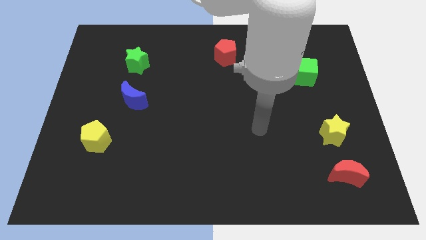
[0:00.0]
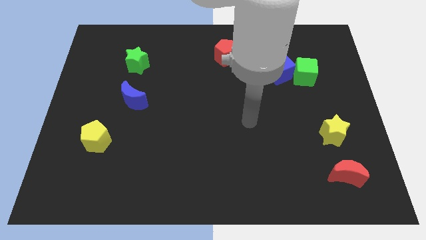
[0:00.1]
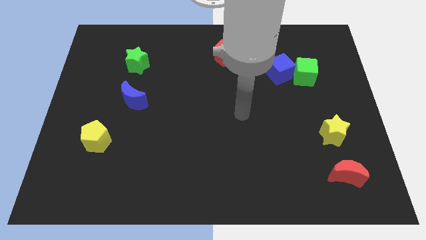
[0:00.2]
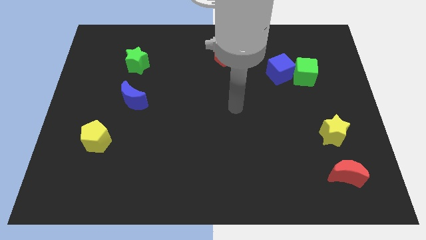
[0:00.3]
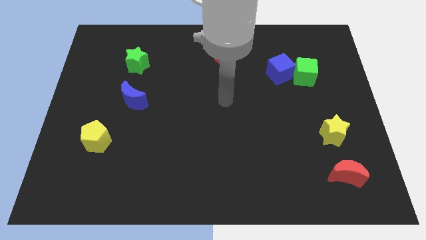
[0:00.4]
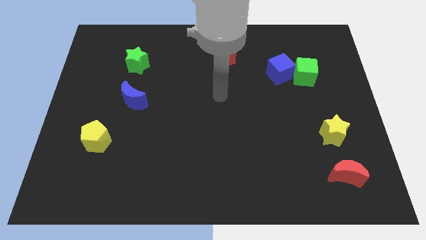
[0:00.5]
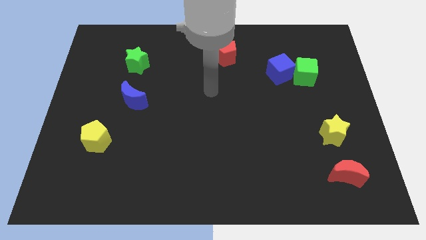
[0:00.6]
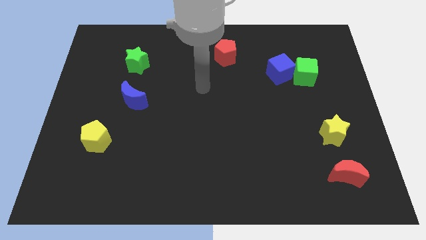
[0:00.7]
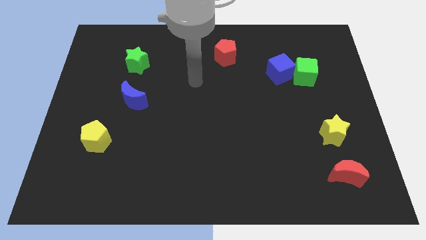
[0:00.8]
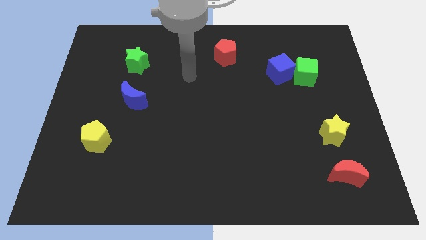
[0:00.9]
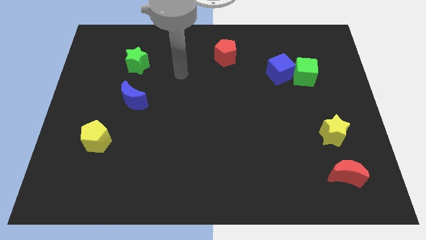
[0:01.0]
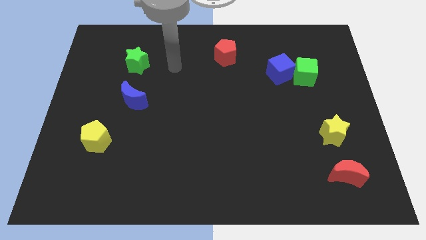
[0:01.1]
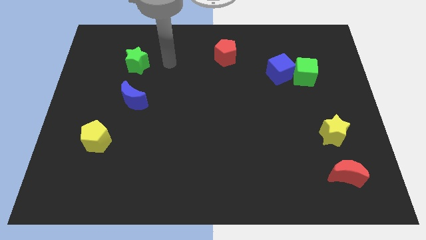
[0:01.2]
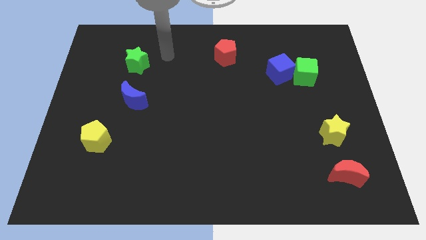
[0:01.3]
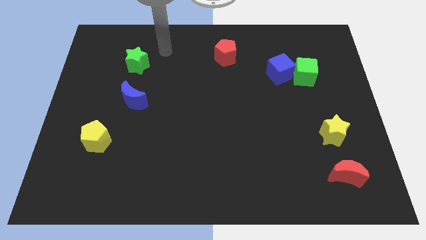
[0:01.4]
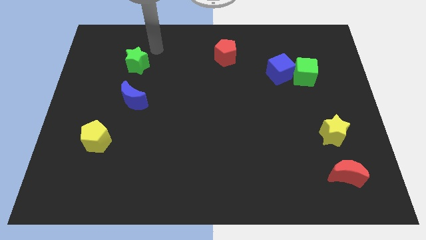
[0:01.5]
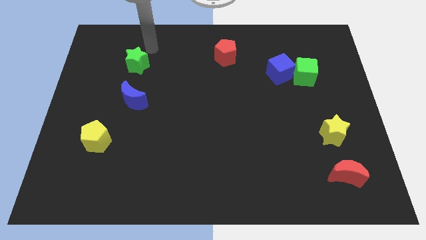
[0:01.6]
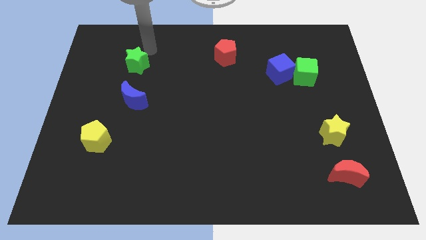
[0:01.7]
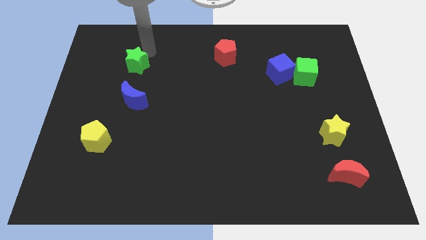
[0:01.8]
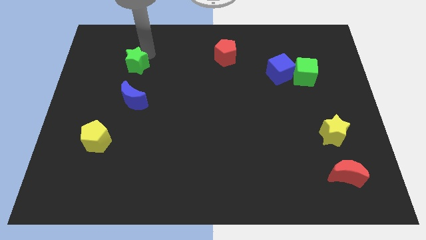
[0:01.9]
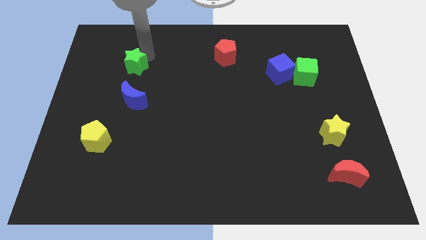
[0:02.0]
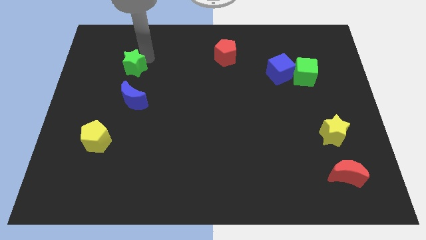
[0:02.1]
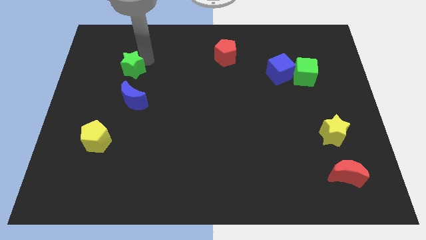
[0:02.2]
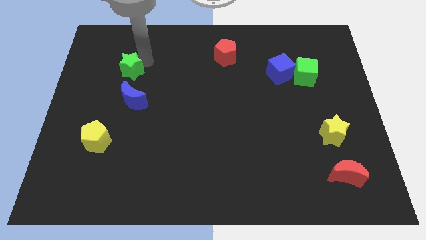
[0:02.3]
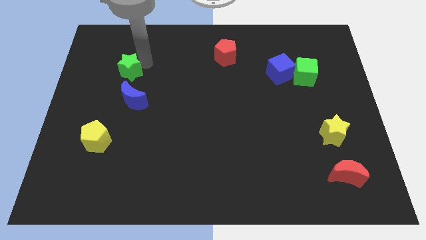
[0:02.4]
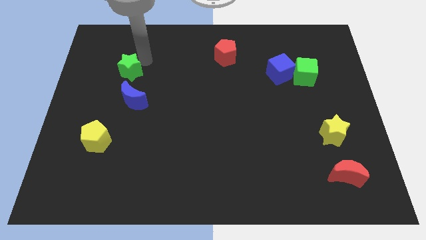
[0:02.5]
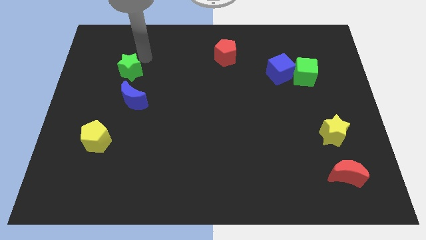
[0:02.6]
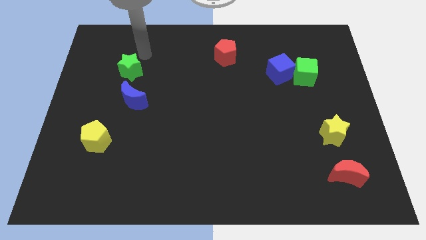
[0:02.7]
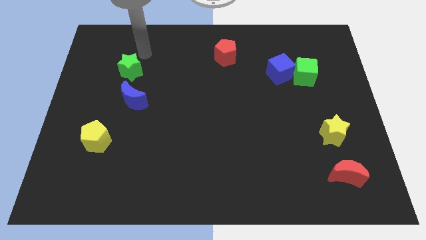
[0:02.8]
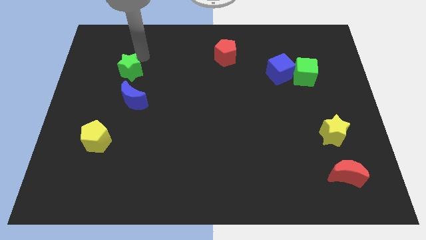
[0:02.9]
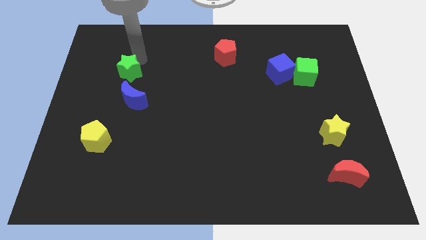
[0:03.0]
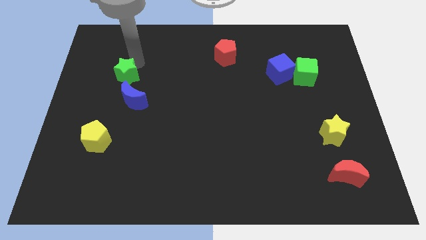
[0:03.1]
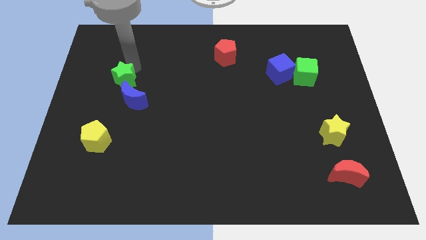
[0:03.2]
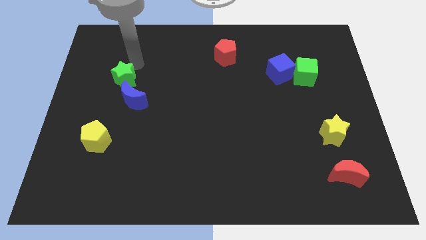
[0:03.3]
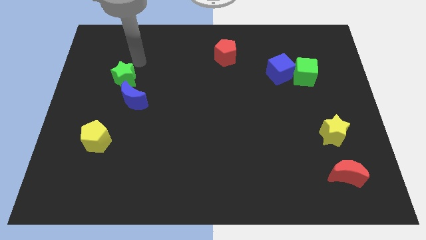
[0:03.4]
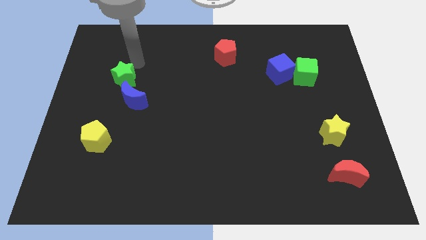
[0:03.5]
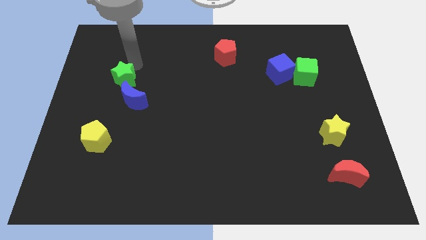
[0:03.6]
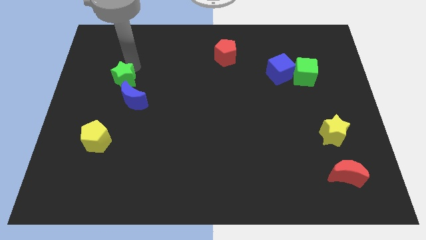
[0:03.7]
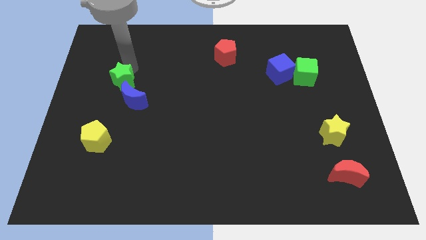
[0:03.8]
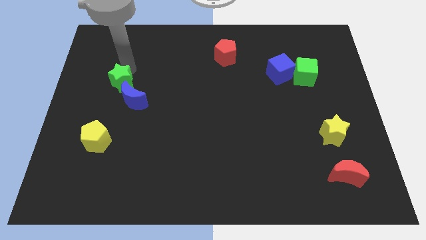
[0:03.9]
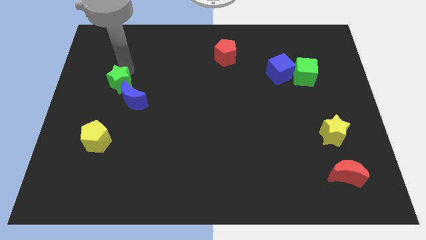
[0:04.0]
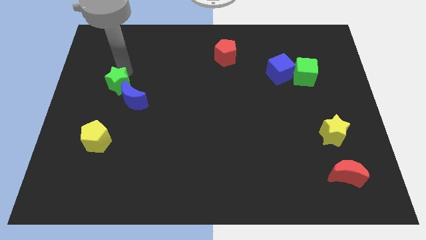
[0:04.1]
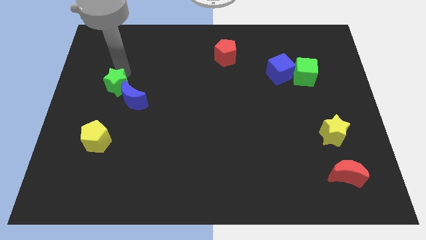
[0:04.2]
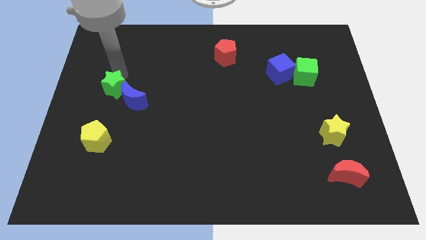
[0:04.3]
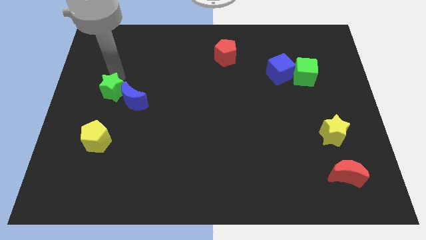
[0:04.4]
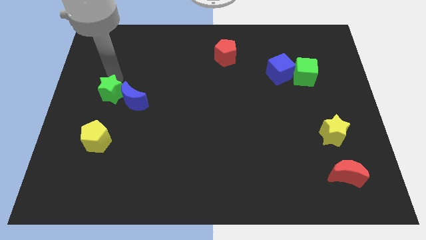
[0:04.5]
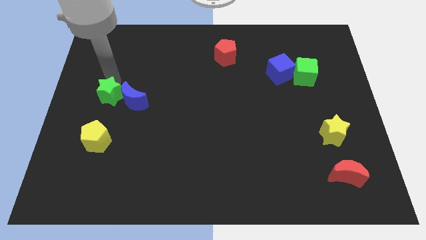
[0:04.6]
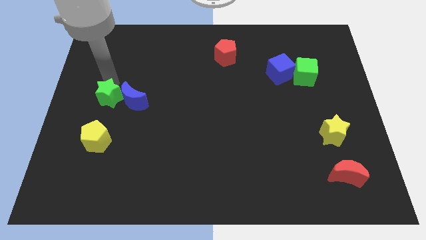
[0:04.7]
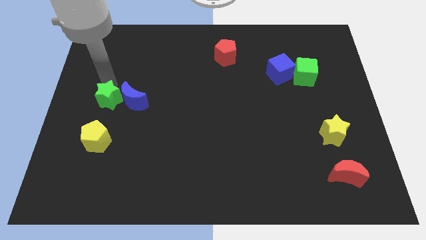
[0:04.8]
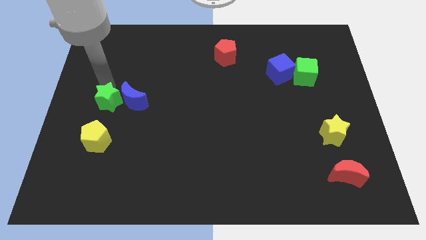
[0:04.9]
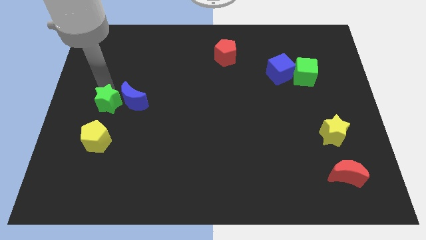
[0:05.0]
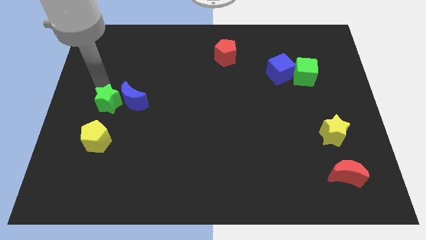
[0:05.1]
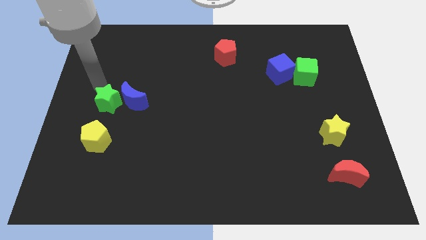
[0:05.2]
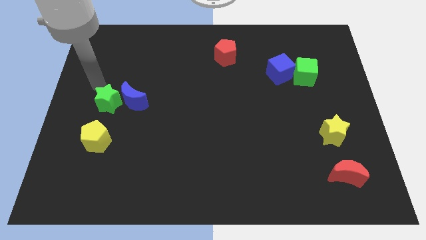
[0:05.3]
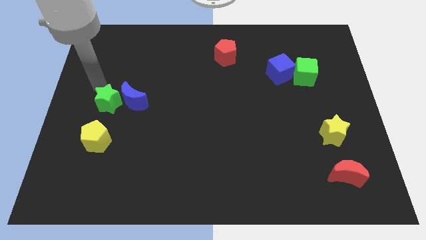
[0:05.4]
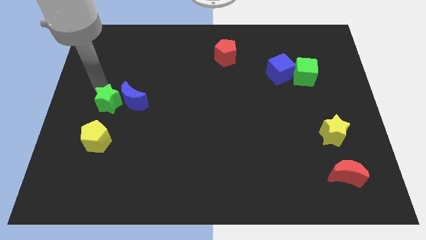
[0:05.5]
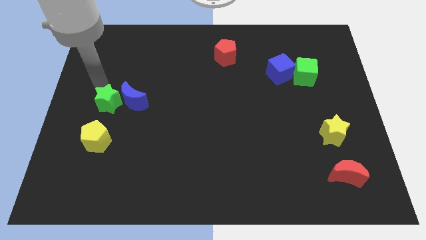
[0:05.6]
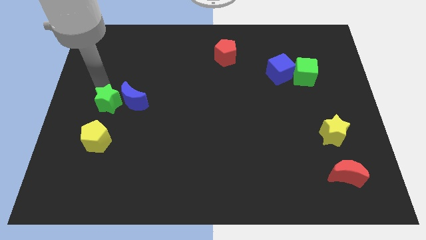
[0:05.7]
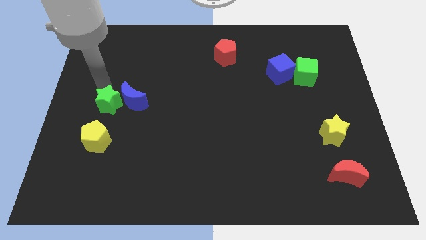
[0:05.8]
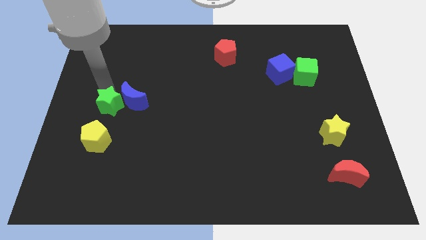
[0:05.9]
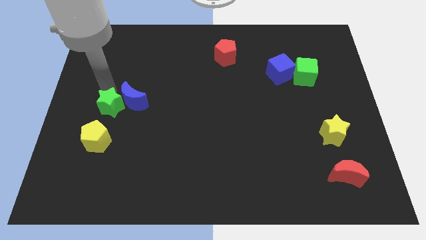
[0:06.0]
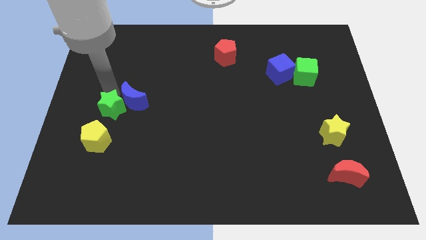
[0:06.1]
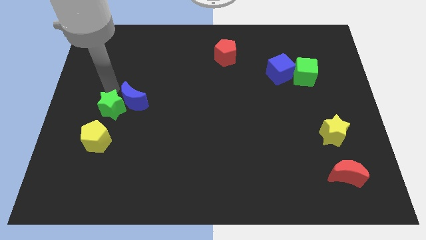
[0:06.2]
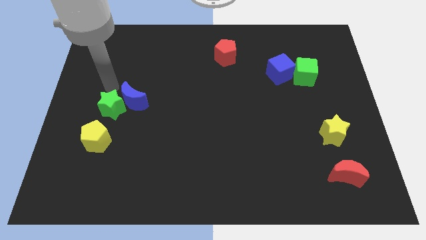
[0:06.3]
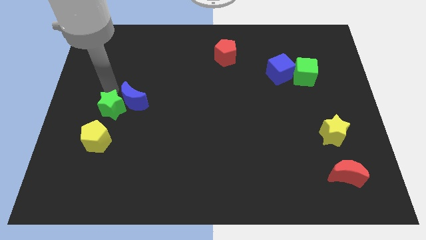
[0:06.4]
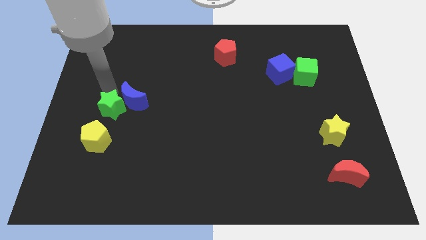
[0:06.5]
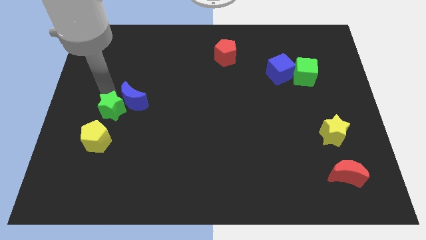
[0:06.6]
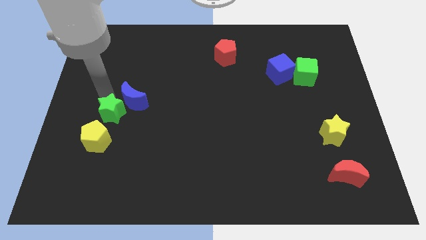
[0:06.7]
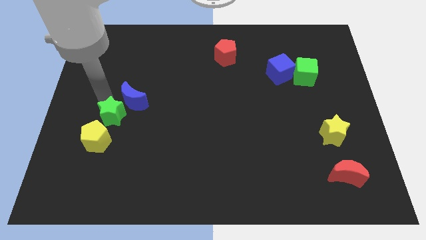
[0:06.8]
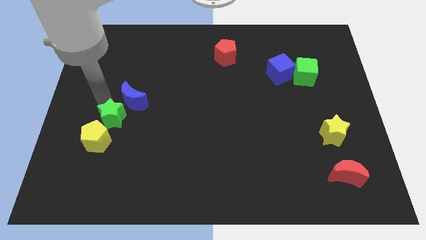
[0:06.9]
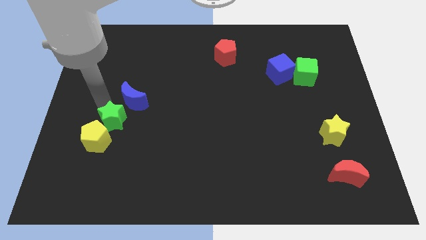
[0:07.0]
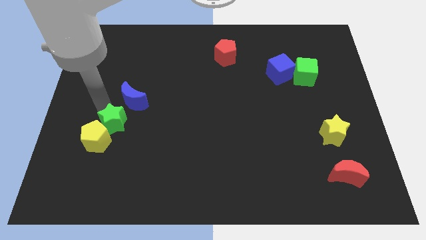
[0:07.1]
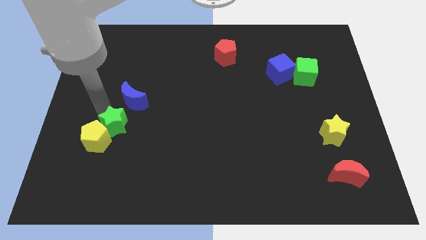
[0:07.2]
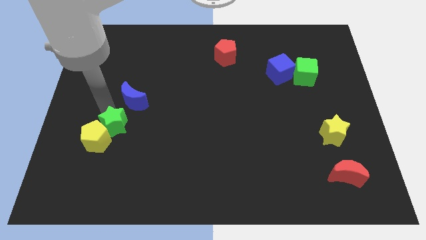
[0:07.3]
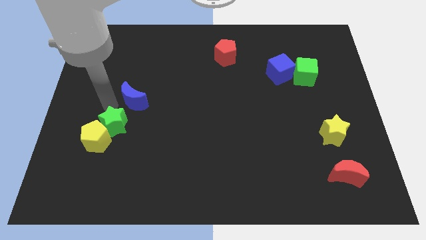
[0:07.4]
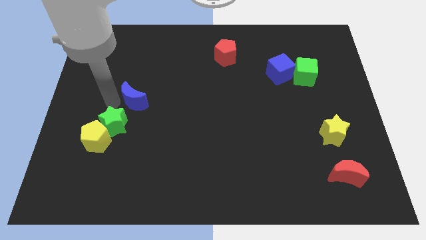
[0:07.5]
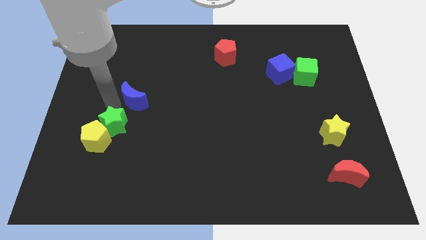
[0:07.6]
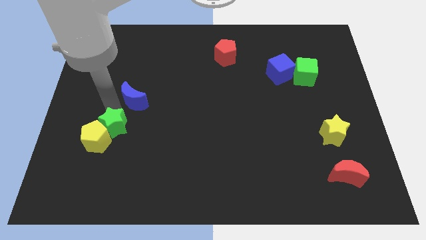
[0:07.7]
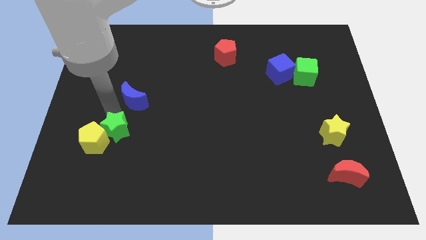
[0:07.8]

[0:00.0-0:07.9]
push the green star down
